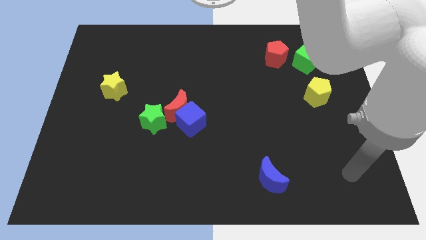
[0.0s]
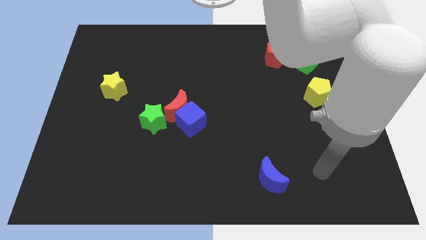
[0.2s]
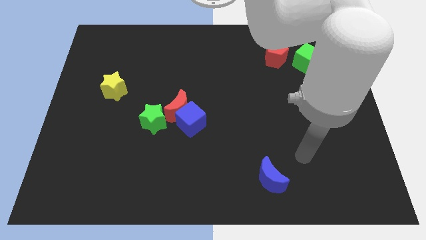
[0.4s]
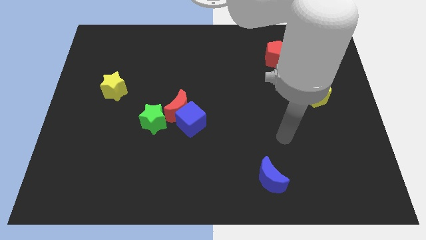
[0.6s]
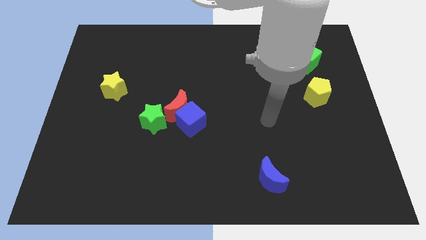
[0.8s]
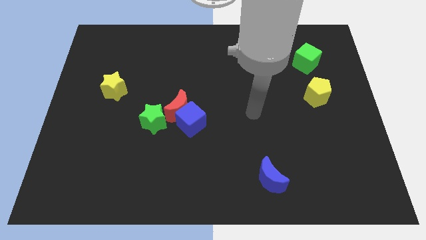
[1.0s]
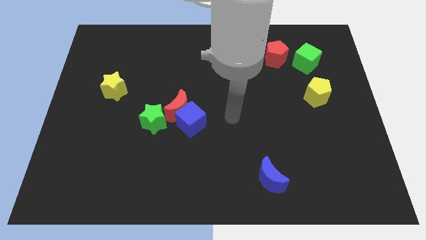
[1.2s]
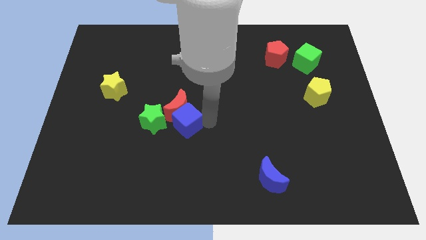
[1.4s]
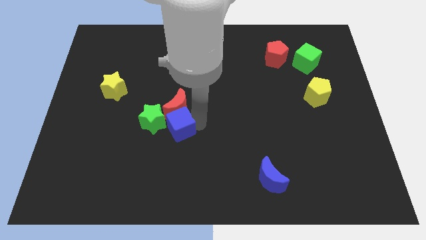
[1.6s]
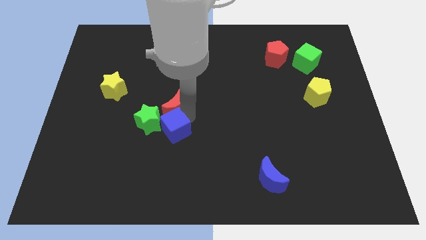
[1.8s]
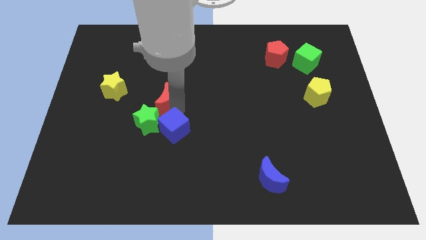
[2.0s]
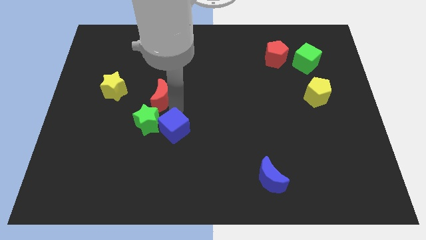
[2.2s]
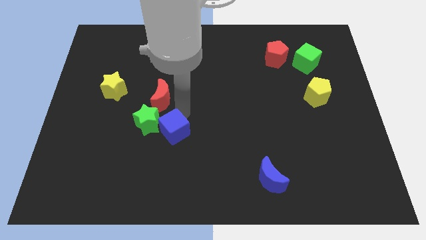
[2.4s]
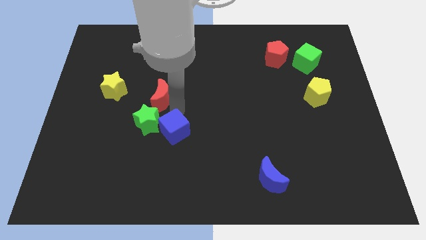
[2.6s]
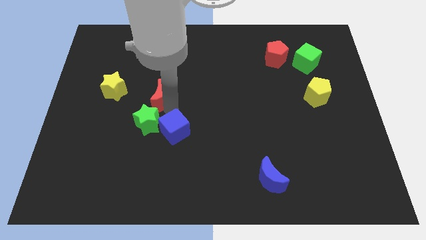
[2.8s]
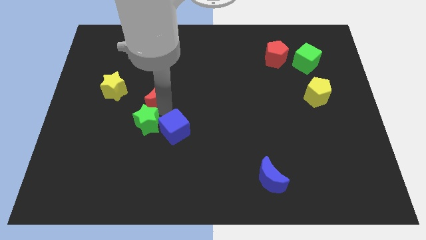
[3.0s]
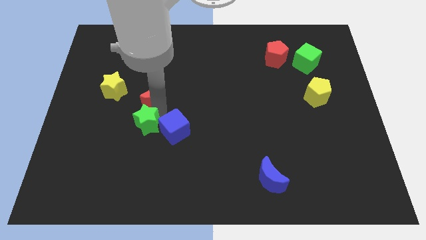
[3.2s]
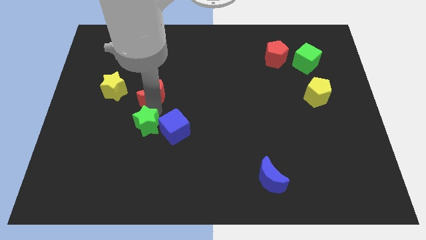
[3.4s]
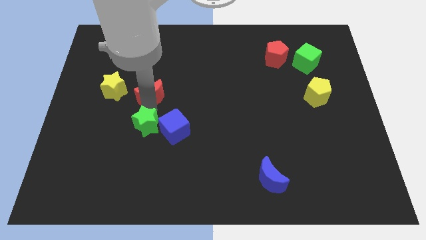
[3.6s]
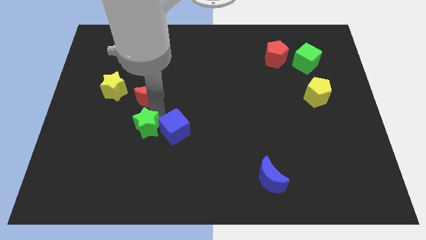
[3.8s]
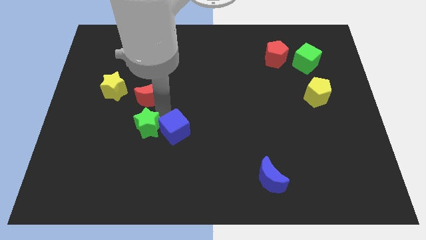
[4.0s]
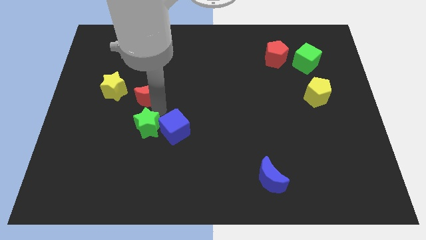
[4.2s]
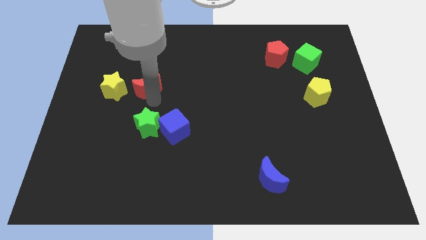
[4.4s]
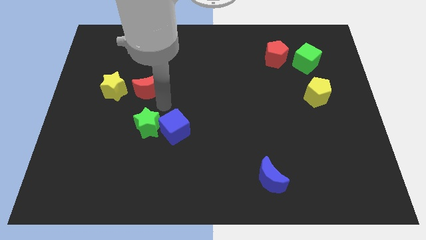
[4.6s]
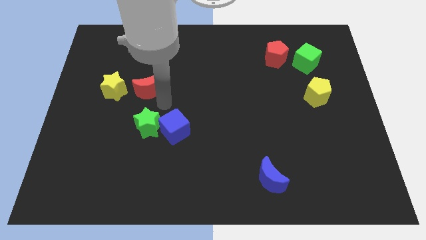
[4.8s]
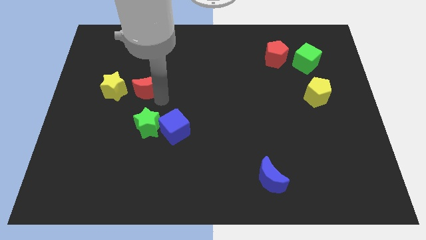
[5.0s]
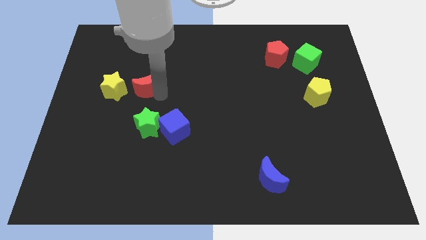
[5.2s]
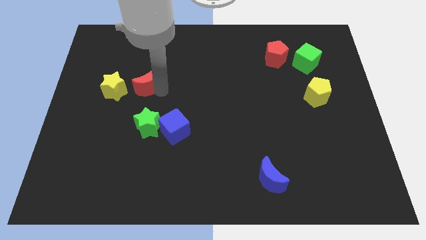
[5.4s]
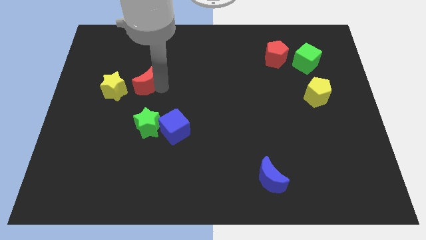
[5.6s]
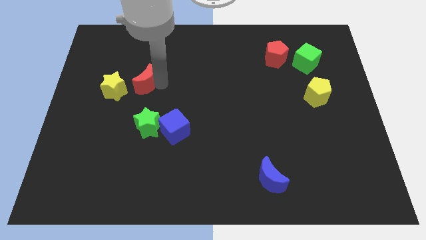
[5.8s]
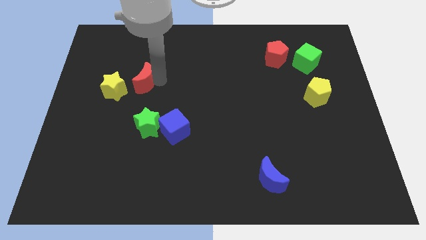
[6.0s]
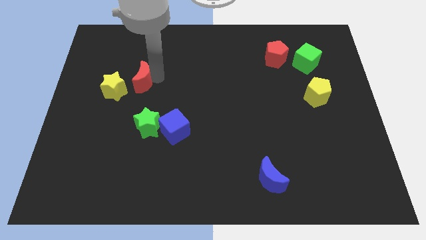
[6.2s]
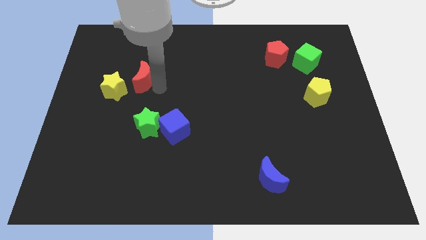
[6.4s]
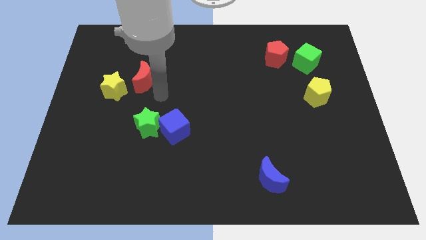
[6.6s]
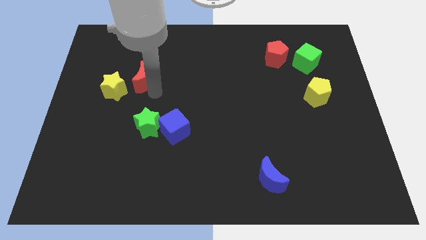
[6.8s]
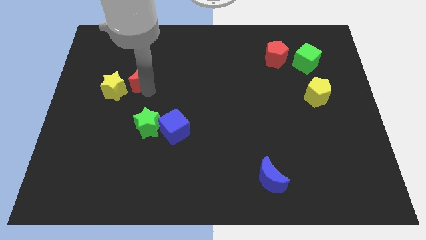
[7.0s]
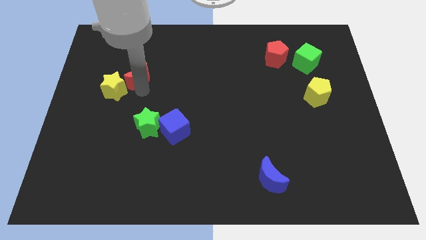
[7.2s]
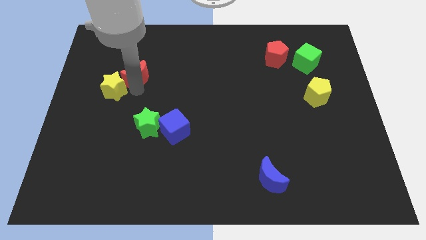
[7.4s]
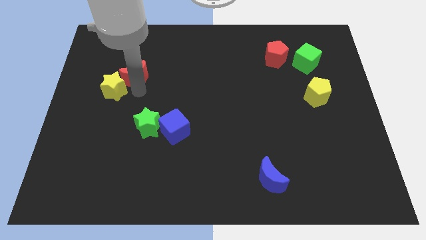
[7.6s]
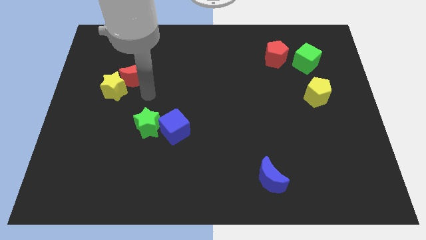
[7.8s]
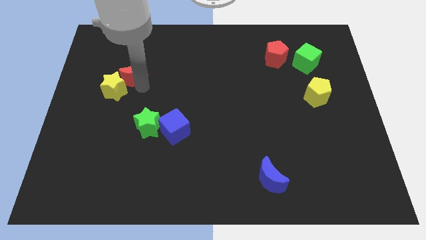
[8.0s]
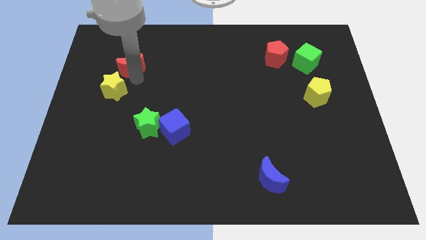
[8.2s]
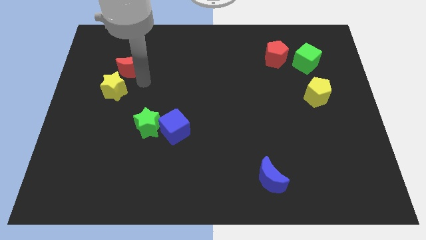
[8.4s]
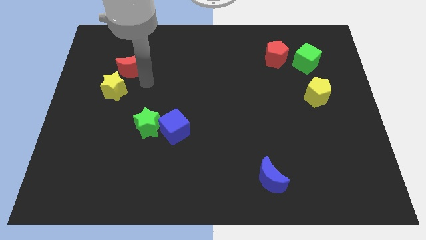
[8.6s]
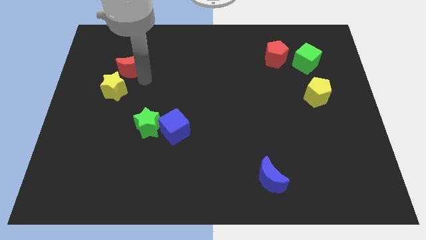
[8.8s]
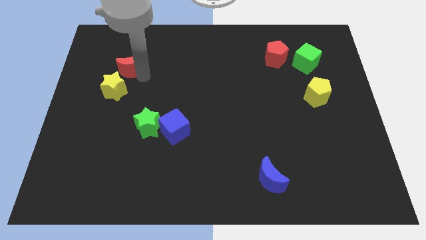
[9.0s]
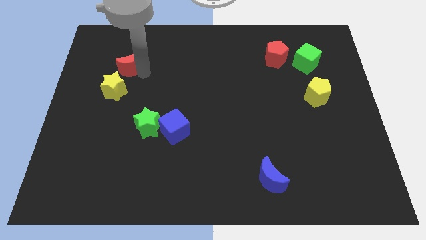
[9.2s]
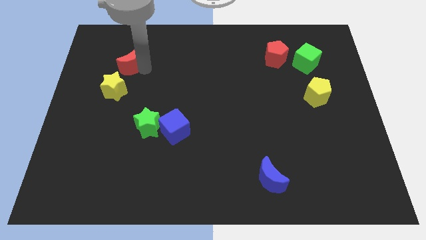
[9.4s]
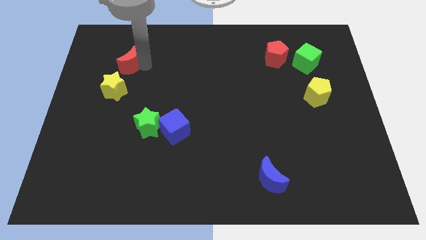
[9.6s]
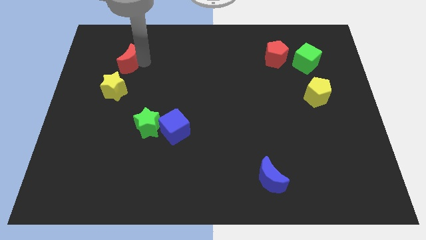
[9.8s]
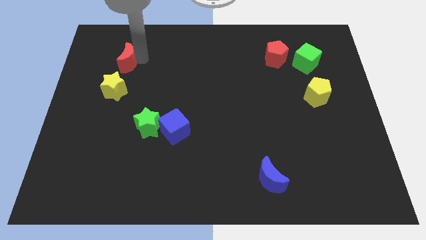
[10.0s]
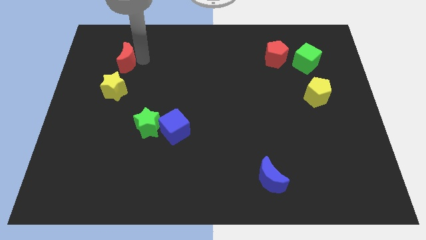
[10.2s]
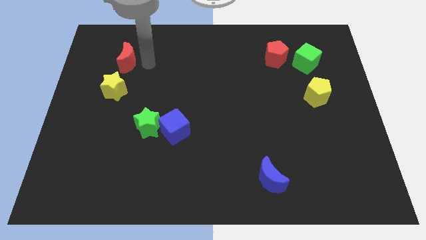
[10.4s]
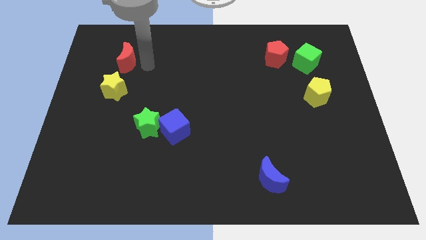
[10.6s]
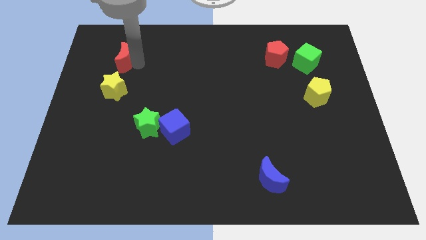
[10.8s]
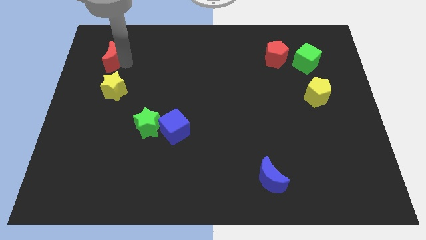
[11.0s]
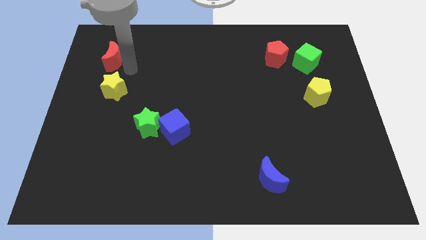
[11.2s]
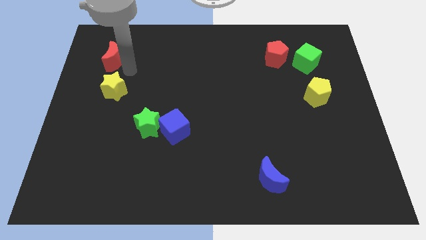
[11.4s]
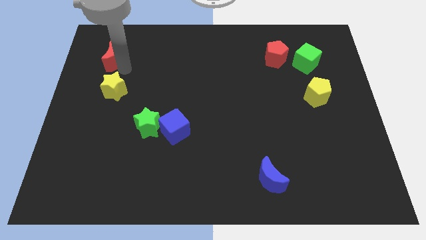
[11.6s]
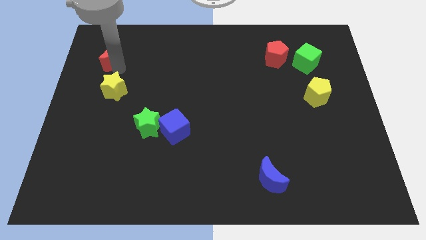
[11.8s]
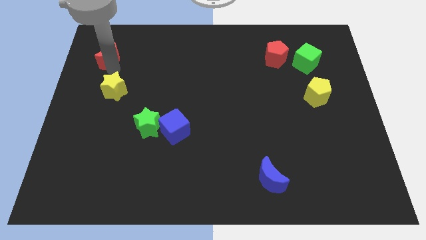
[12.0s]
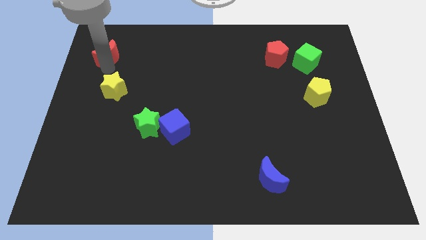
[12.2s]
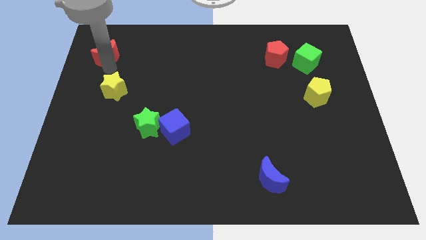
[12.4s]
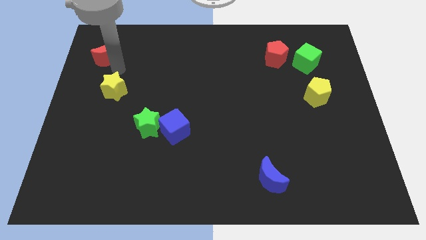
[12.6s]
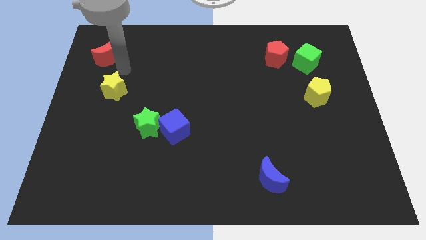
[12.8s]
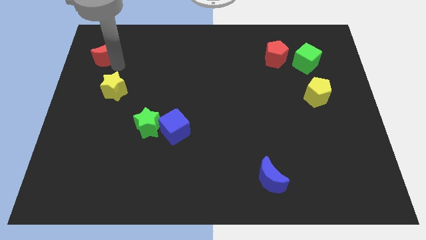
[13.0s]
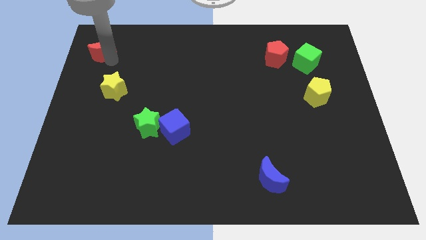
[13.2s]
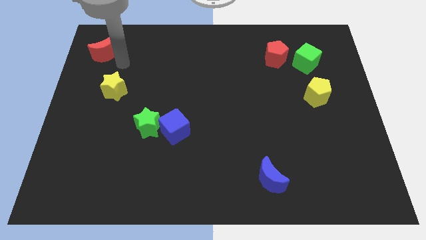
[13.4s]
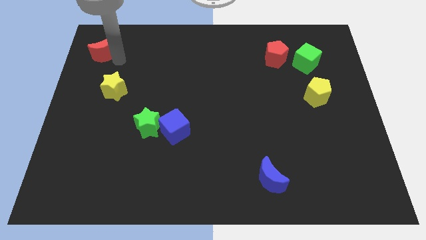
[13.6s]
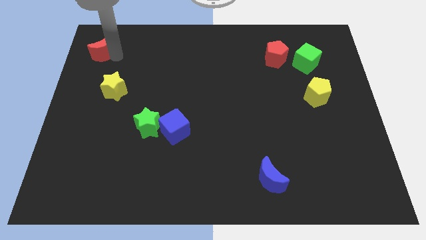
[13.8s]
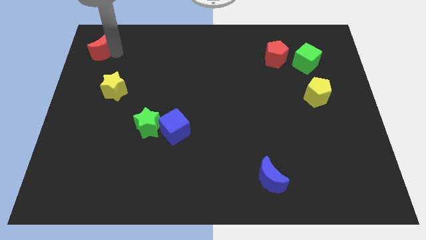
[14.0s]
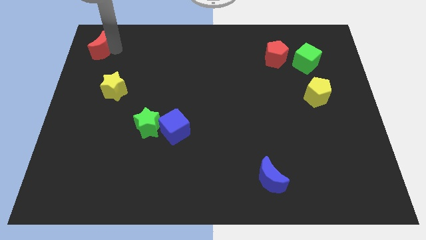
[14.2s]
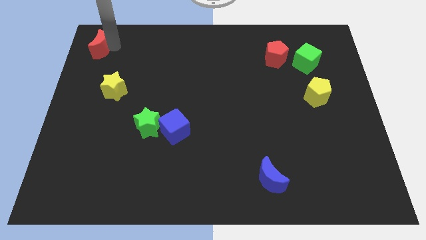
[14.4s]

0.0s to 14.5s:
slide the red moon to the top left of the board
